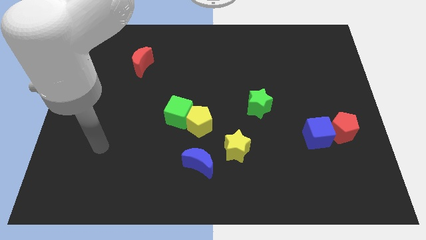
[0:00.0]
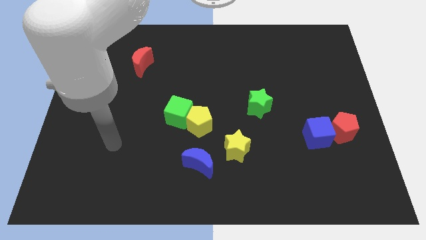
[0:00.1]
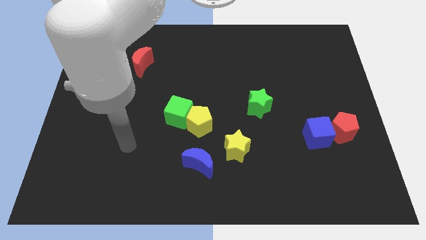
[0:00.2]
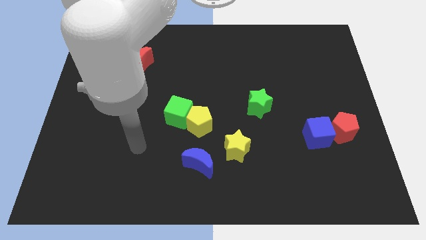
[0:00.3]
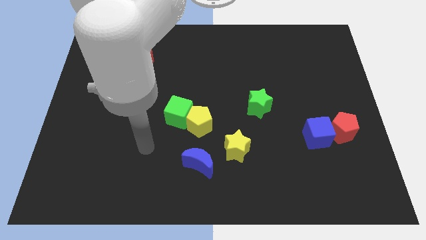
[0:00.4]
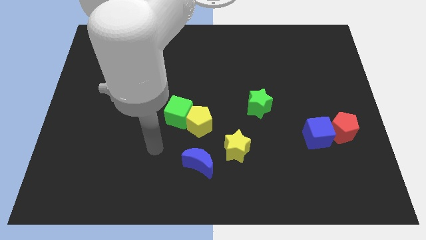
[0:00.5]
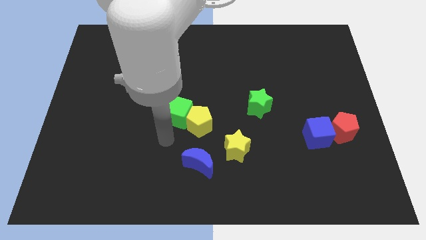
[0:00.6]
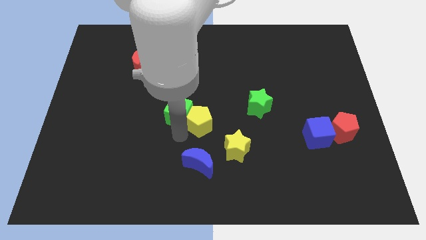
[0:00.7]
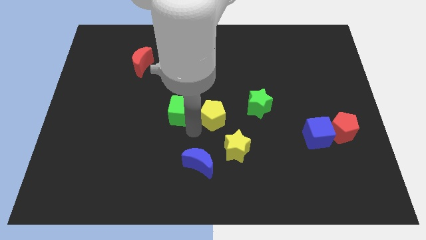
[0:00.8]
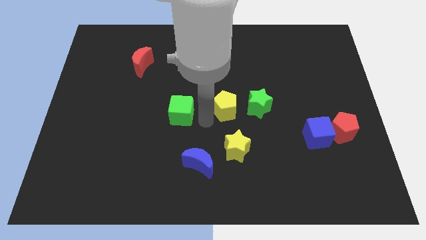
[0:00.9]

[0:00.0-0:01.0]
separate the green cube from the yellow pentagon

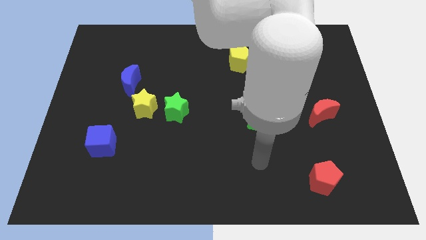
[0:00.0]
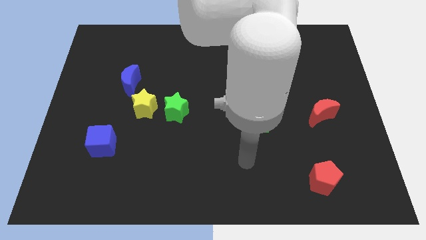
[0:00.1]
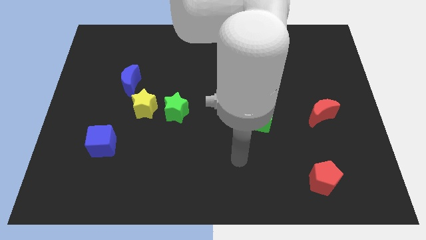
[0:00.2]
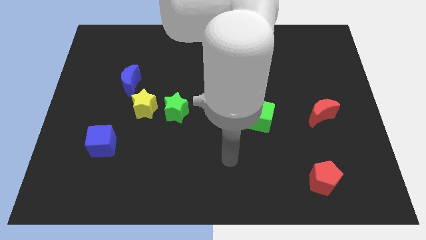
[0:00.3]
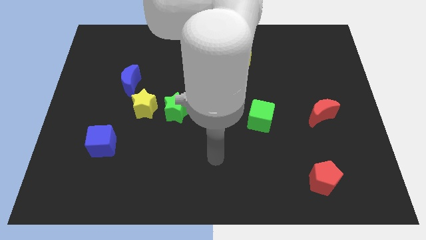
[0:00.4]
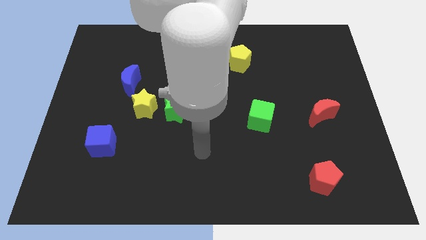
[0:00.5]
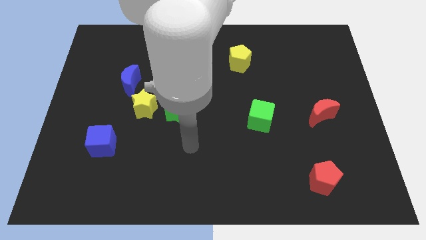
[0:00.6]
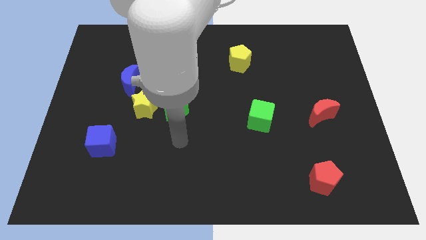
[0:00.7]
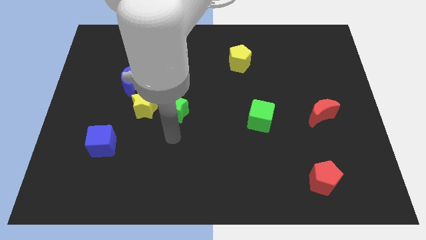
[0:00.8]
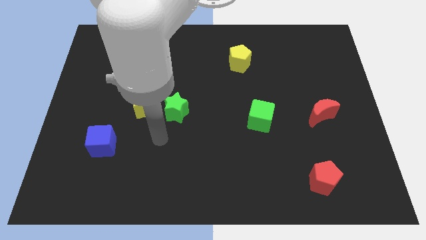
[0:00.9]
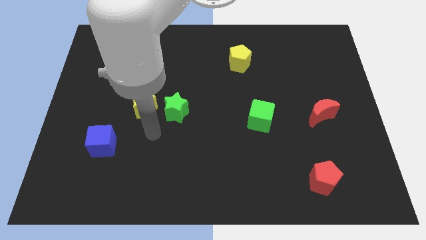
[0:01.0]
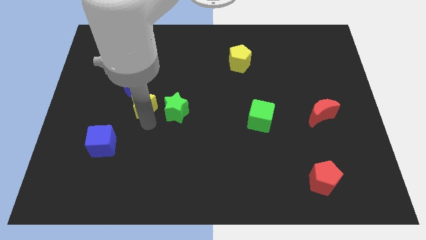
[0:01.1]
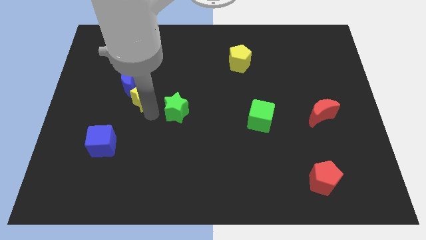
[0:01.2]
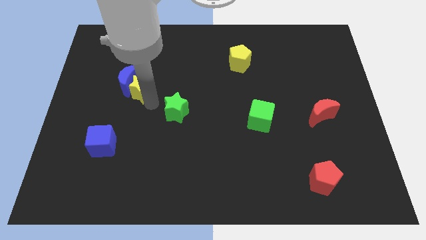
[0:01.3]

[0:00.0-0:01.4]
move the green star away from the yellow star

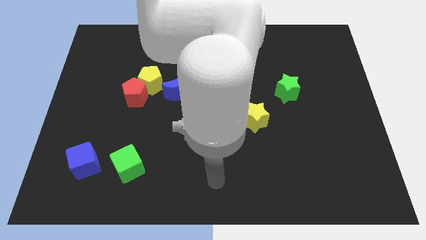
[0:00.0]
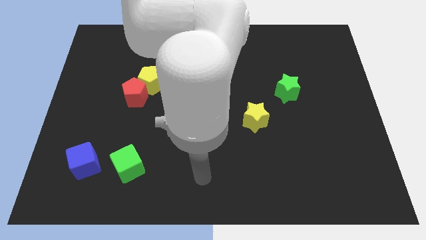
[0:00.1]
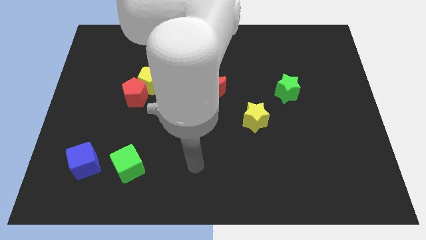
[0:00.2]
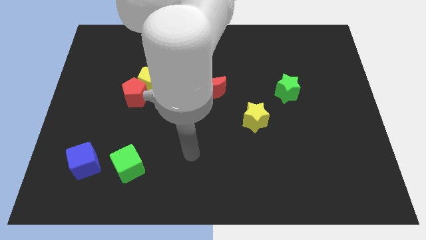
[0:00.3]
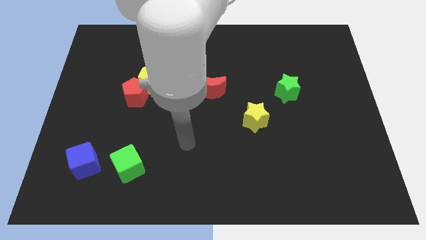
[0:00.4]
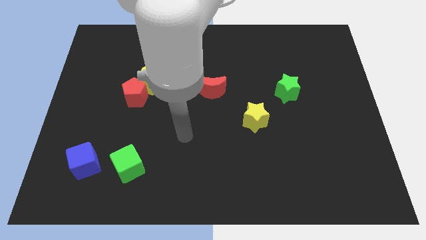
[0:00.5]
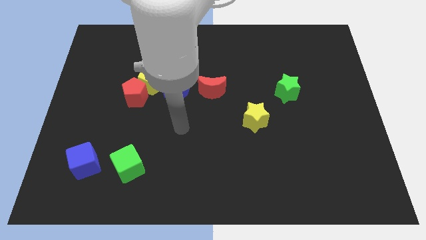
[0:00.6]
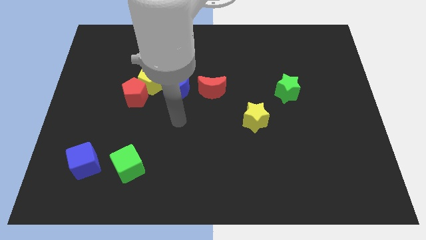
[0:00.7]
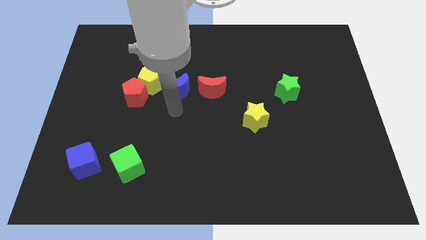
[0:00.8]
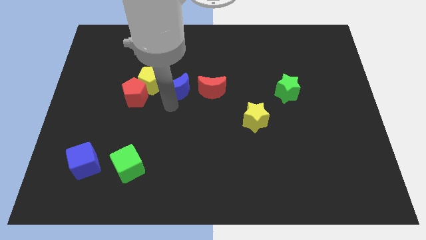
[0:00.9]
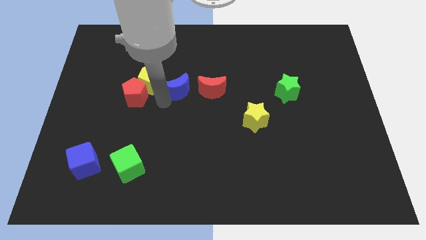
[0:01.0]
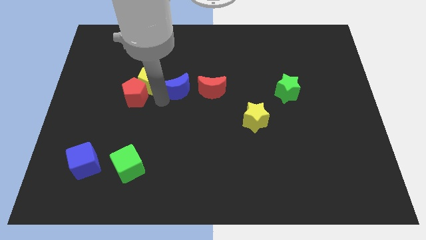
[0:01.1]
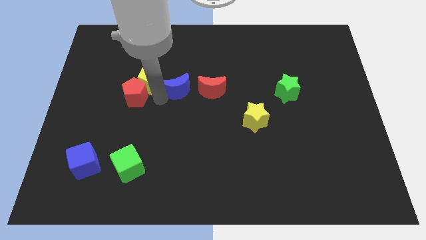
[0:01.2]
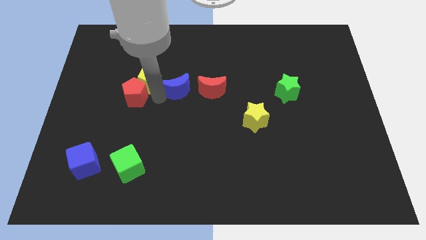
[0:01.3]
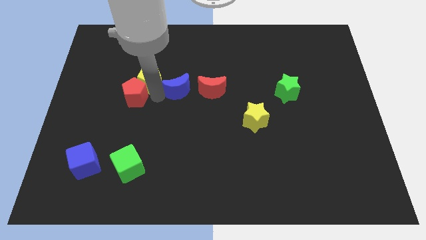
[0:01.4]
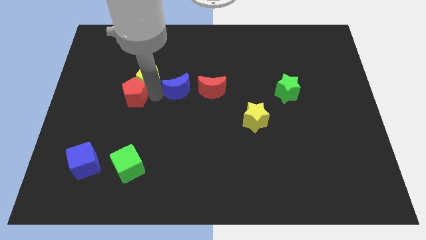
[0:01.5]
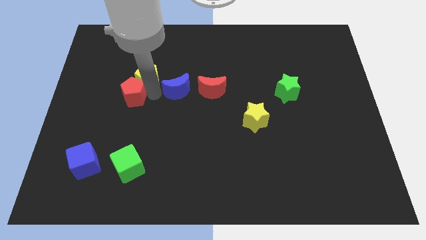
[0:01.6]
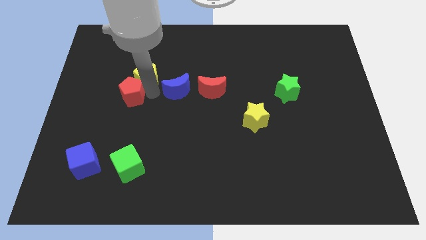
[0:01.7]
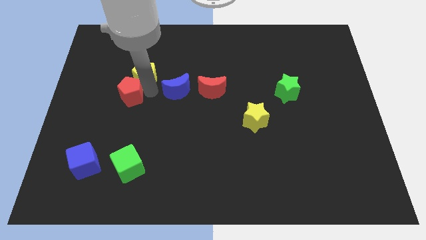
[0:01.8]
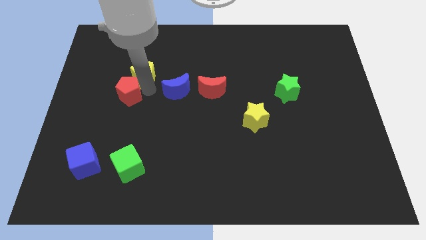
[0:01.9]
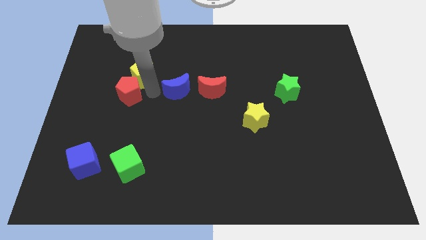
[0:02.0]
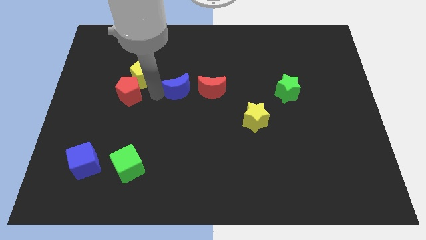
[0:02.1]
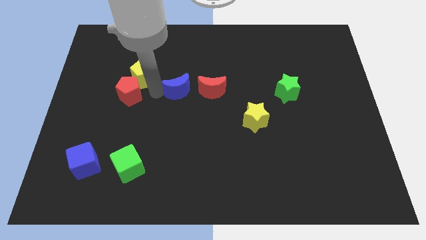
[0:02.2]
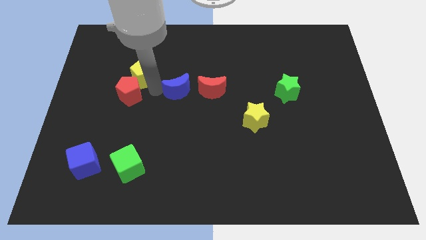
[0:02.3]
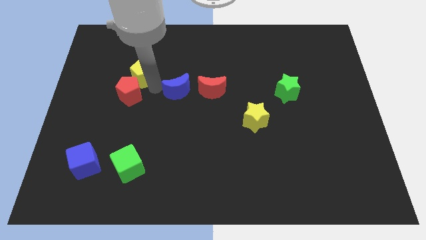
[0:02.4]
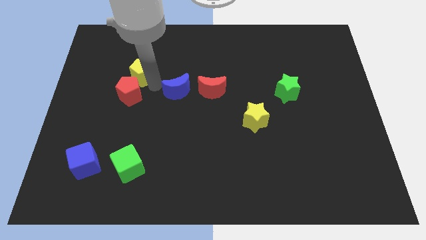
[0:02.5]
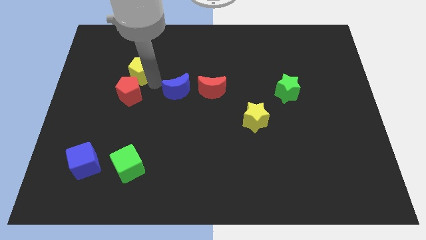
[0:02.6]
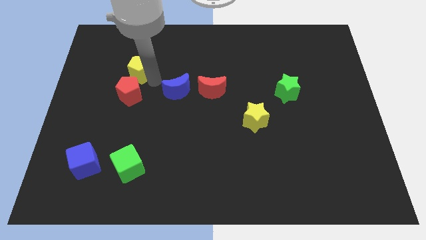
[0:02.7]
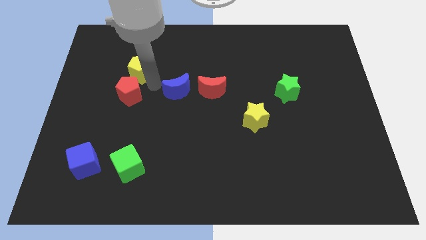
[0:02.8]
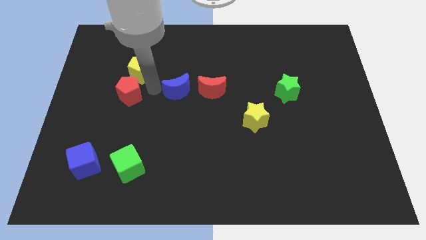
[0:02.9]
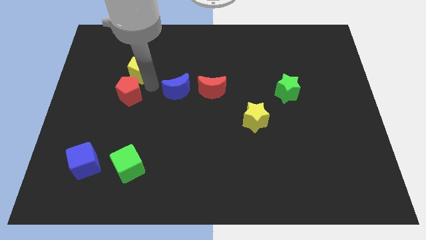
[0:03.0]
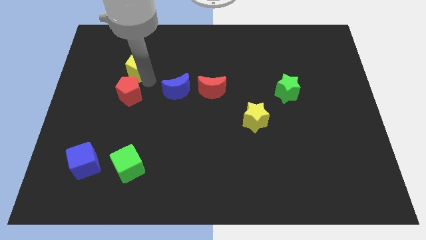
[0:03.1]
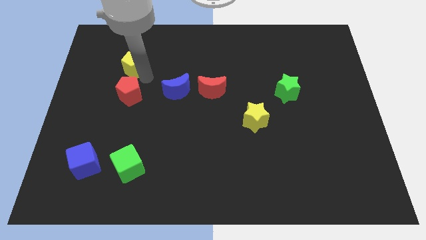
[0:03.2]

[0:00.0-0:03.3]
move the yellow pentagon away from the red pentagon and blue moon

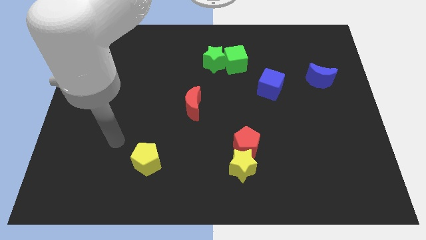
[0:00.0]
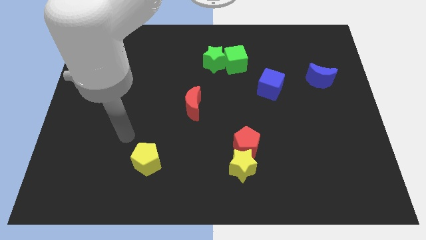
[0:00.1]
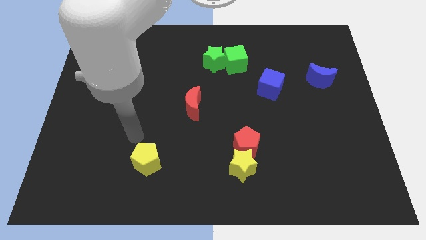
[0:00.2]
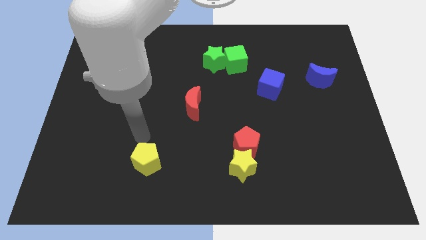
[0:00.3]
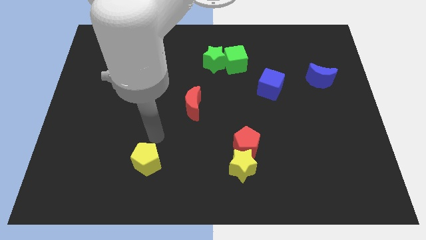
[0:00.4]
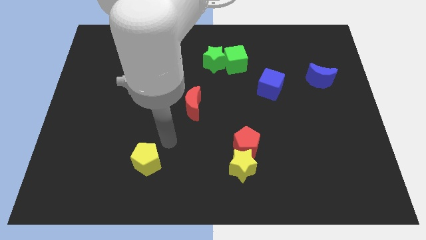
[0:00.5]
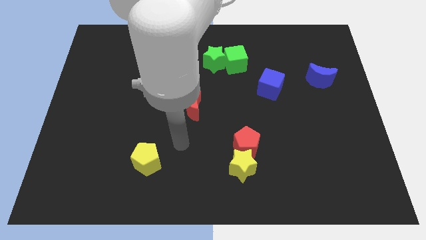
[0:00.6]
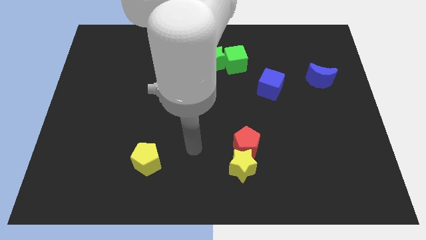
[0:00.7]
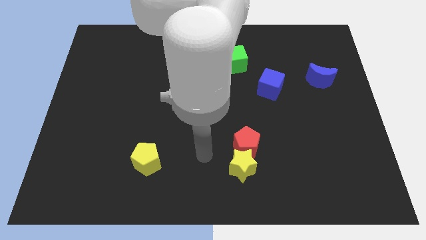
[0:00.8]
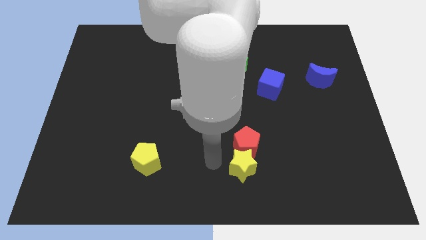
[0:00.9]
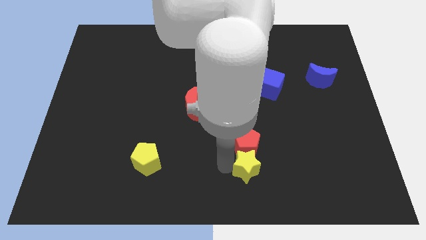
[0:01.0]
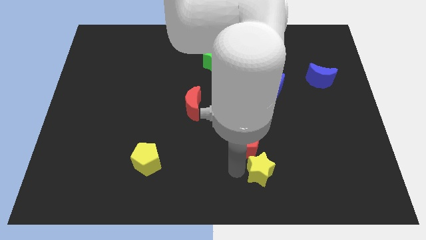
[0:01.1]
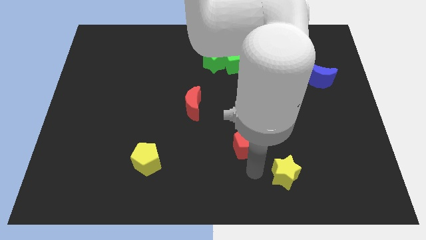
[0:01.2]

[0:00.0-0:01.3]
move the red pentagon away from the yellow star

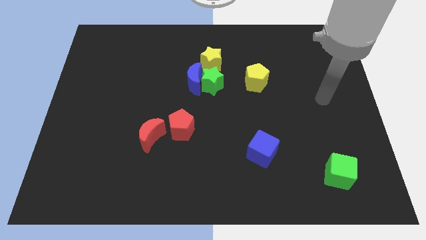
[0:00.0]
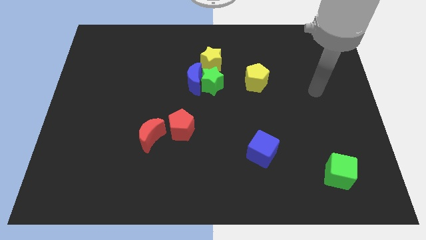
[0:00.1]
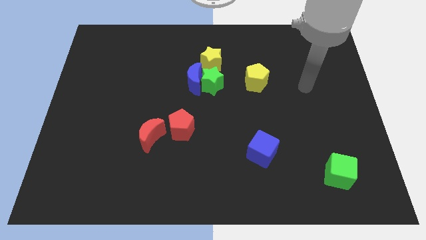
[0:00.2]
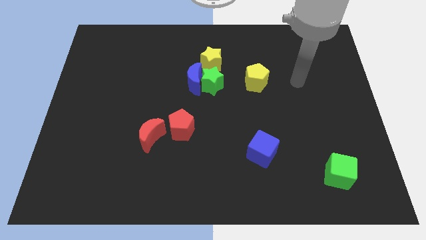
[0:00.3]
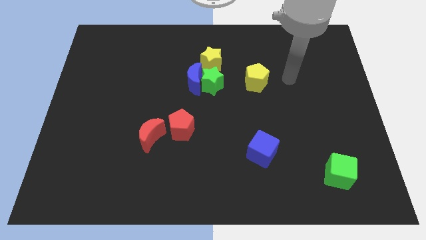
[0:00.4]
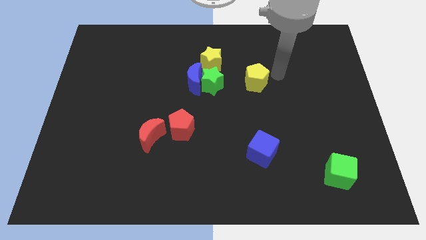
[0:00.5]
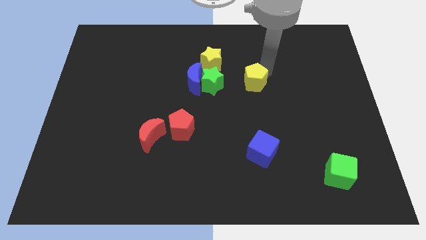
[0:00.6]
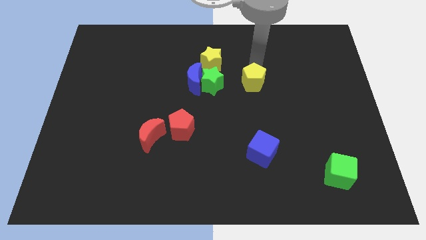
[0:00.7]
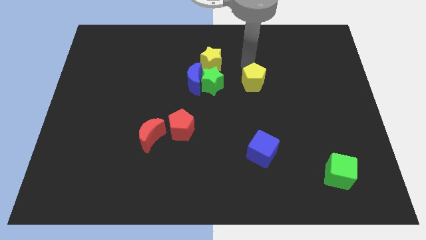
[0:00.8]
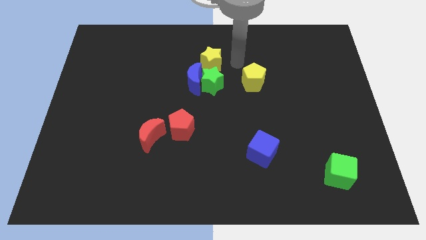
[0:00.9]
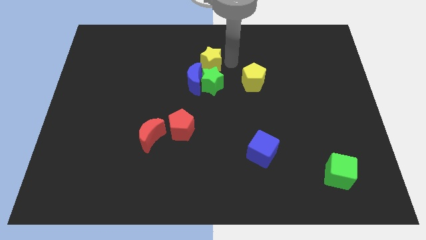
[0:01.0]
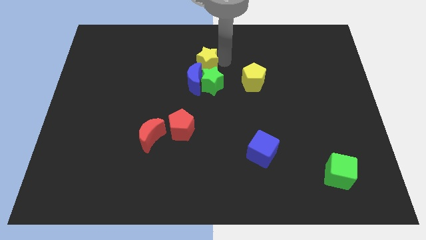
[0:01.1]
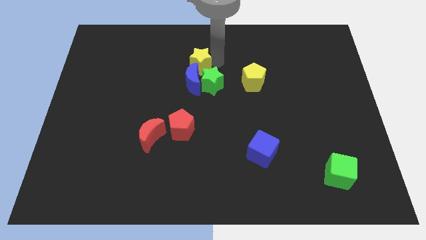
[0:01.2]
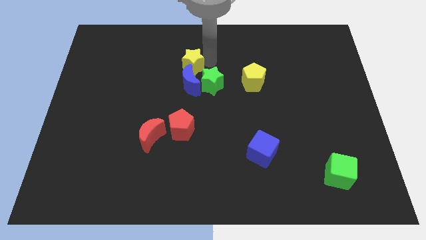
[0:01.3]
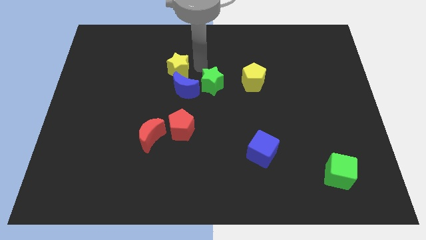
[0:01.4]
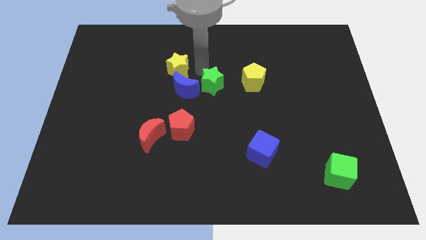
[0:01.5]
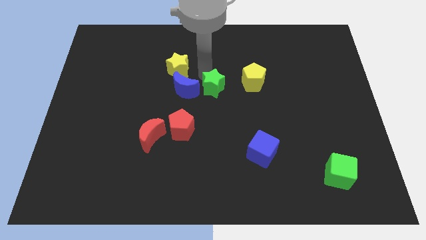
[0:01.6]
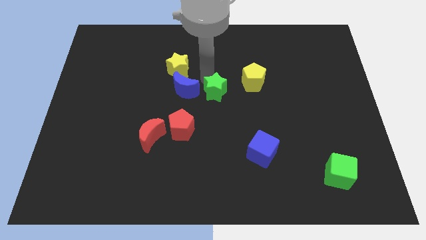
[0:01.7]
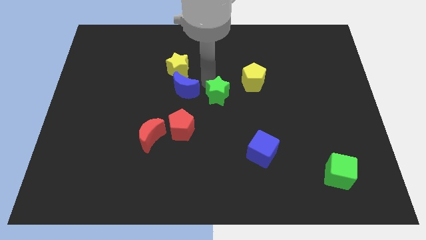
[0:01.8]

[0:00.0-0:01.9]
pull the green star apart from the blue moon and yellow star

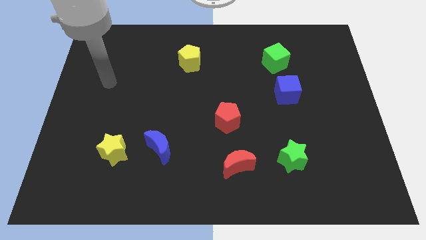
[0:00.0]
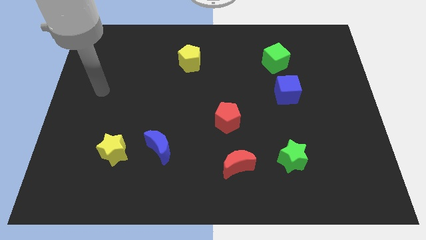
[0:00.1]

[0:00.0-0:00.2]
separate the blue moon from the yellow star

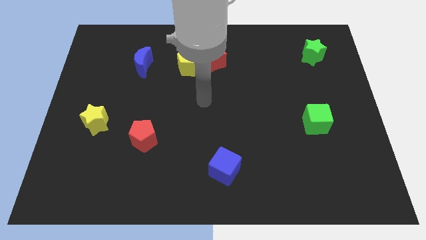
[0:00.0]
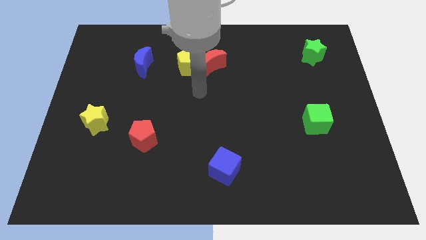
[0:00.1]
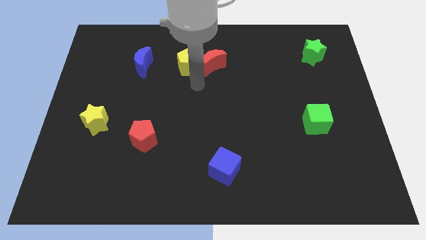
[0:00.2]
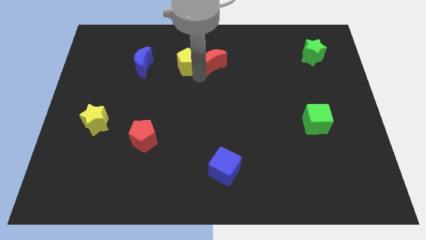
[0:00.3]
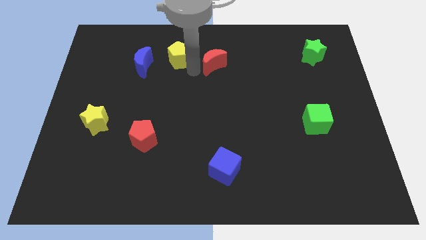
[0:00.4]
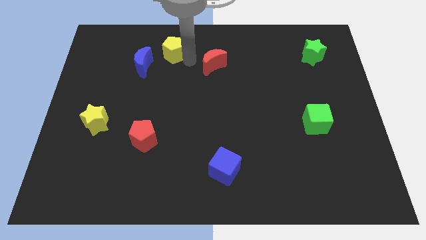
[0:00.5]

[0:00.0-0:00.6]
move the red moon away from the yellow pentagon
